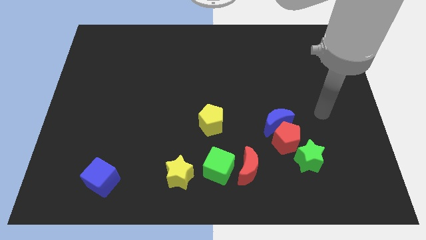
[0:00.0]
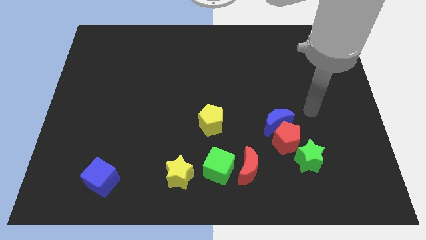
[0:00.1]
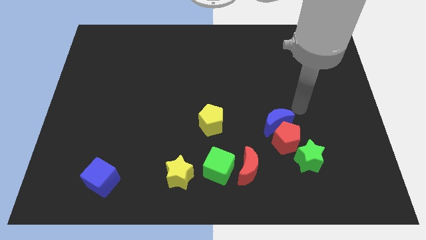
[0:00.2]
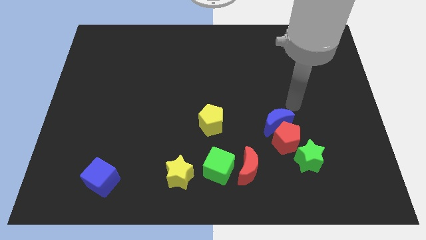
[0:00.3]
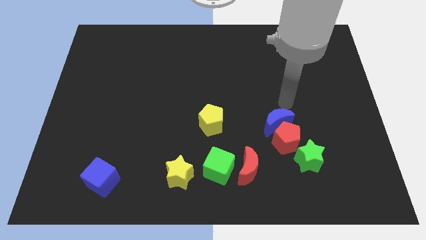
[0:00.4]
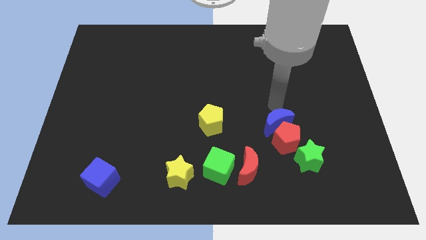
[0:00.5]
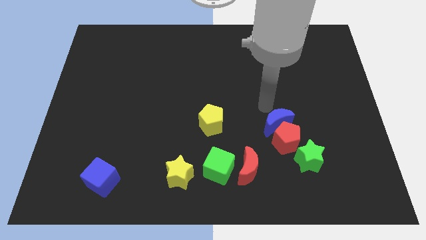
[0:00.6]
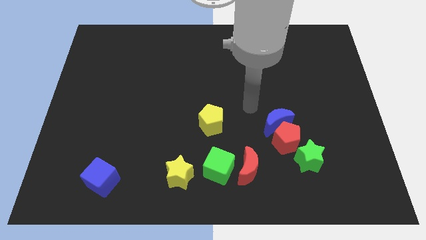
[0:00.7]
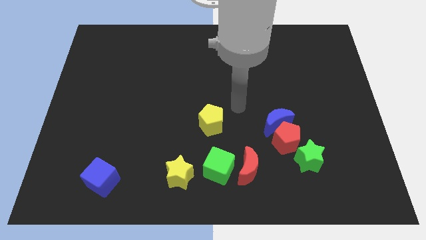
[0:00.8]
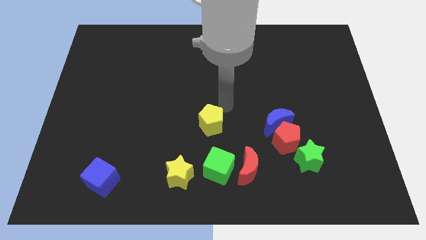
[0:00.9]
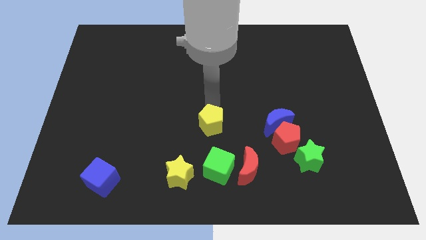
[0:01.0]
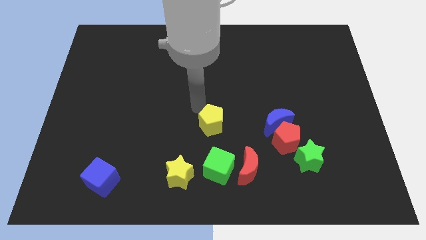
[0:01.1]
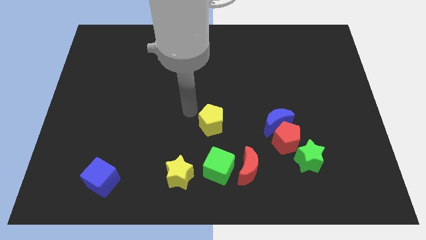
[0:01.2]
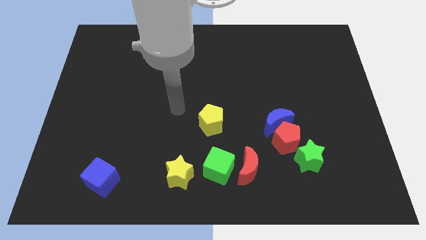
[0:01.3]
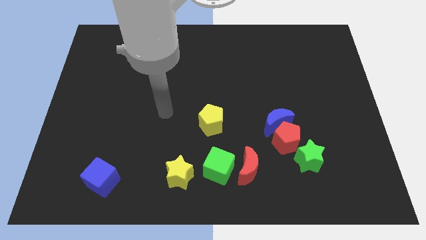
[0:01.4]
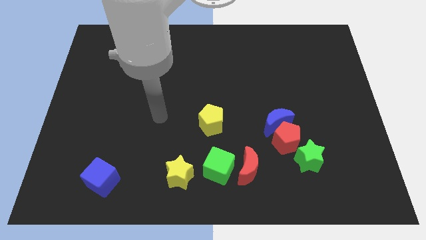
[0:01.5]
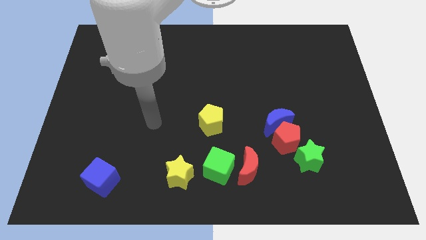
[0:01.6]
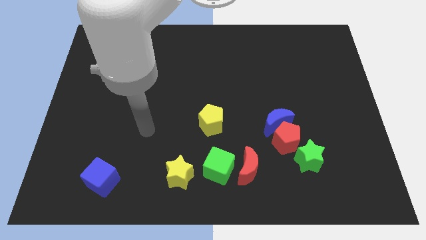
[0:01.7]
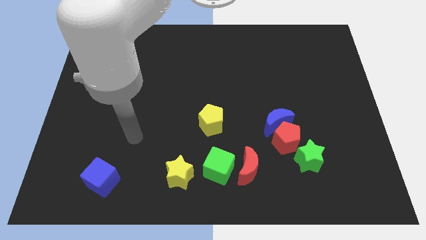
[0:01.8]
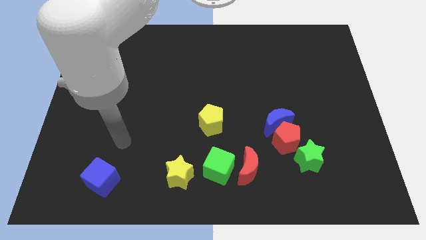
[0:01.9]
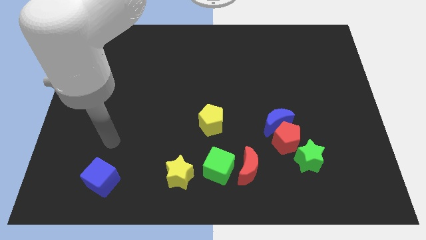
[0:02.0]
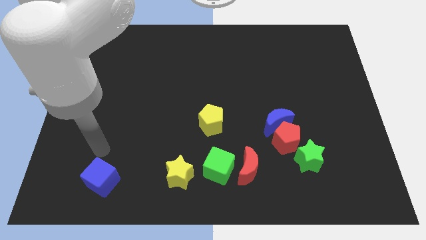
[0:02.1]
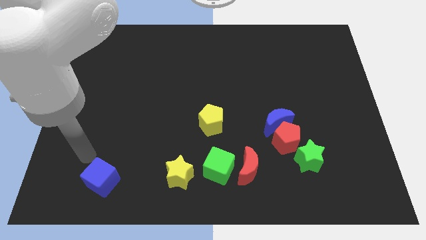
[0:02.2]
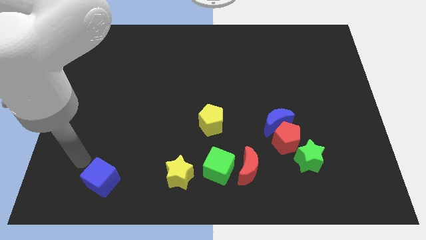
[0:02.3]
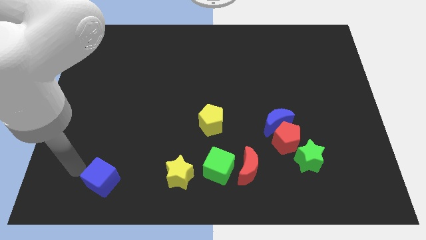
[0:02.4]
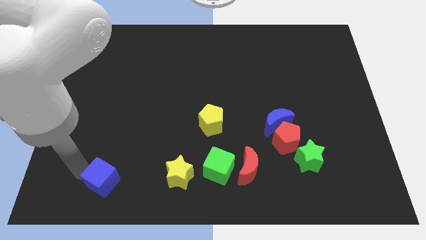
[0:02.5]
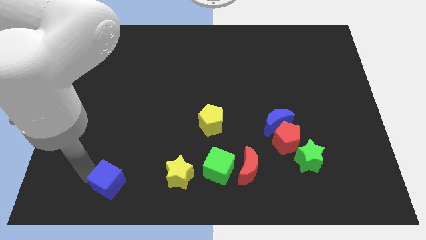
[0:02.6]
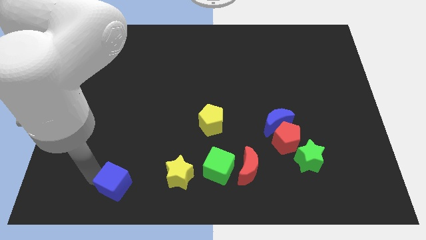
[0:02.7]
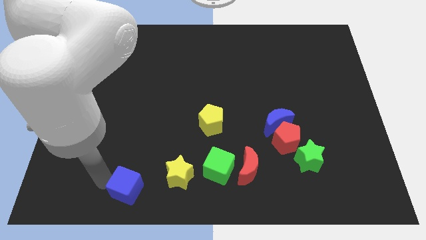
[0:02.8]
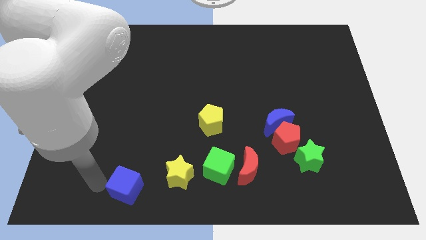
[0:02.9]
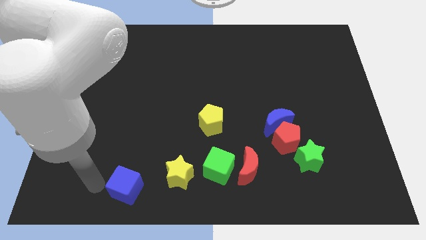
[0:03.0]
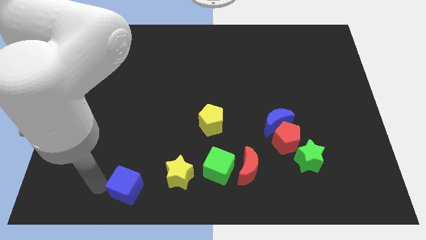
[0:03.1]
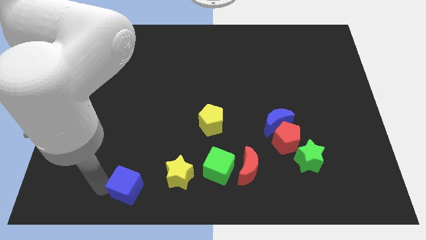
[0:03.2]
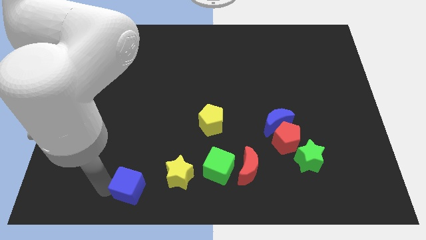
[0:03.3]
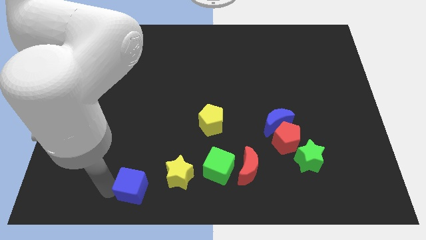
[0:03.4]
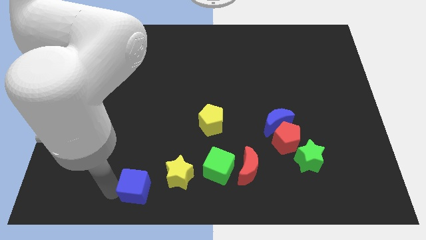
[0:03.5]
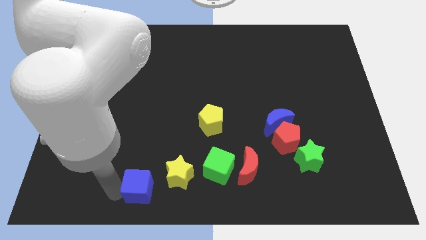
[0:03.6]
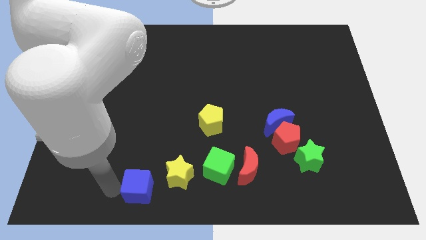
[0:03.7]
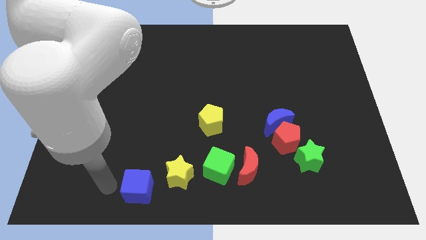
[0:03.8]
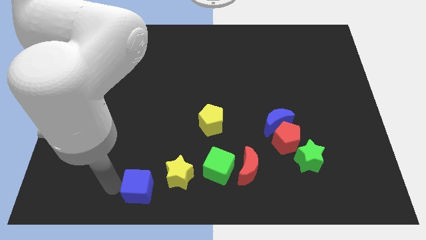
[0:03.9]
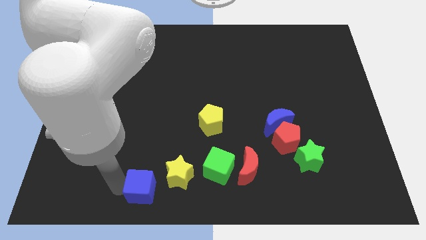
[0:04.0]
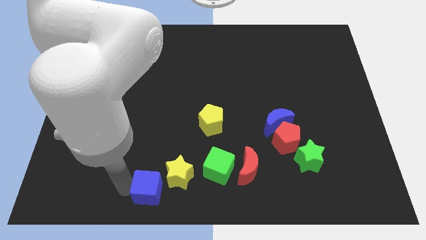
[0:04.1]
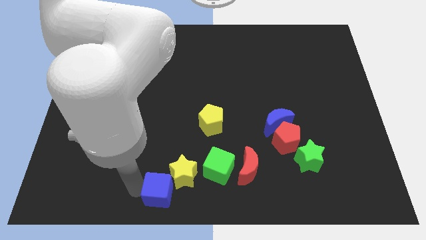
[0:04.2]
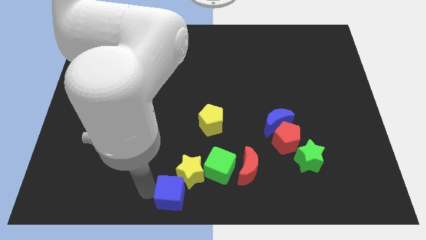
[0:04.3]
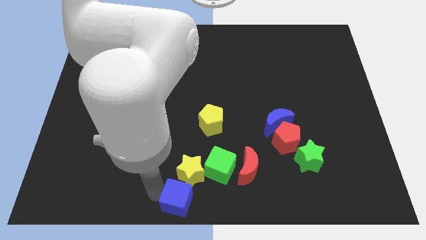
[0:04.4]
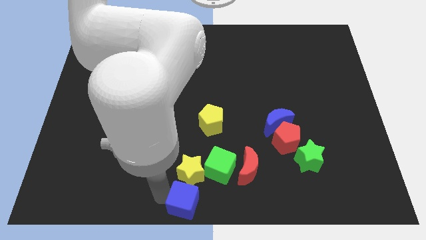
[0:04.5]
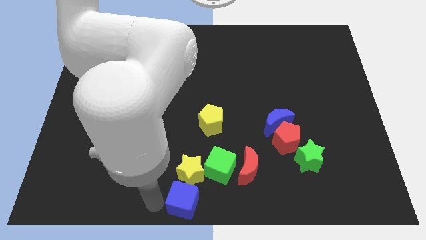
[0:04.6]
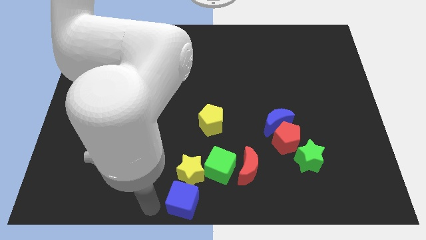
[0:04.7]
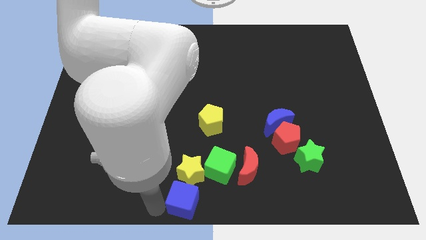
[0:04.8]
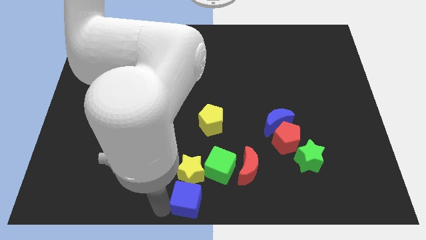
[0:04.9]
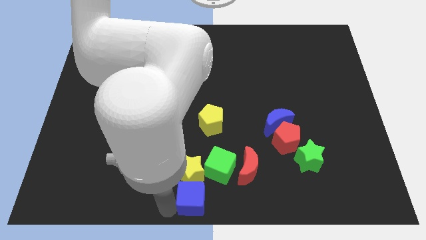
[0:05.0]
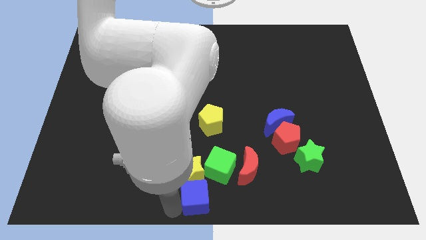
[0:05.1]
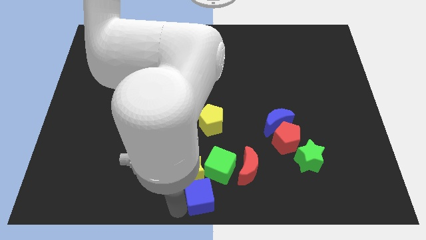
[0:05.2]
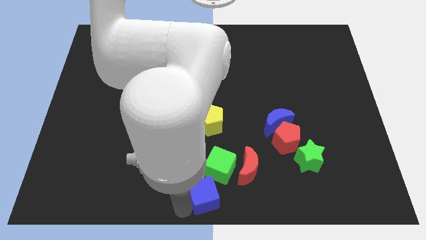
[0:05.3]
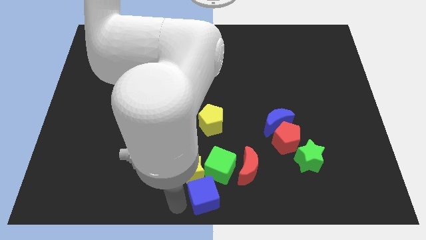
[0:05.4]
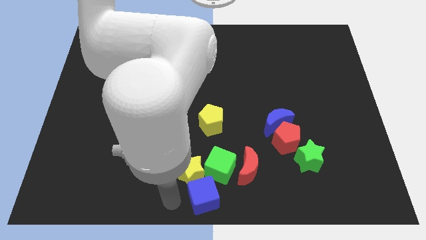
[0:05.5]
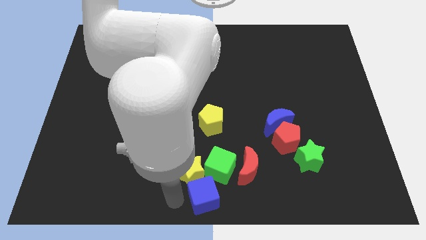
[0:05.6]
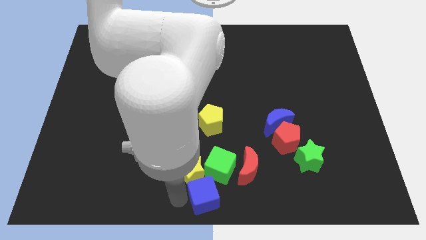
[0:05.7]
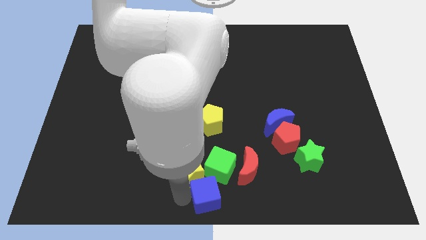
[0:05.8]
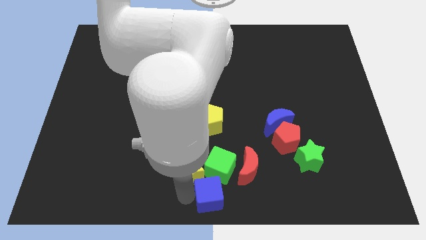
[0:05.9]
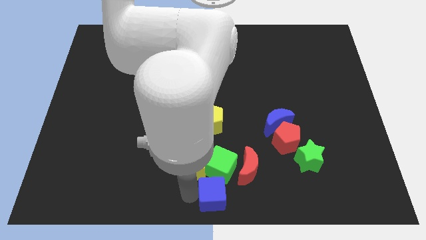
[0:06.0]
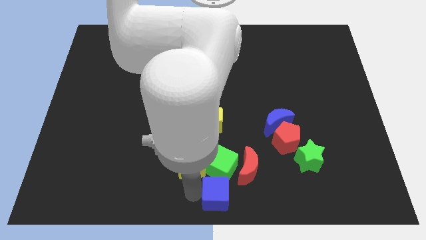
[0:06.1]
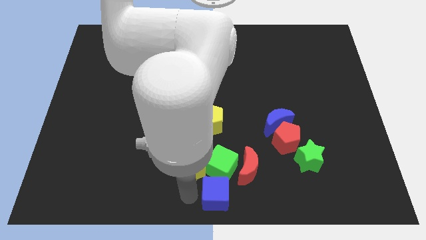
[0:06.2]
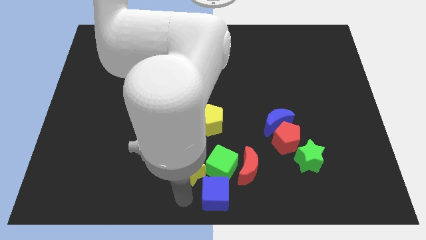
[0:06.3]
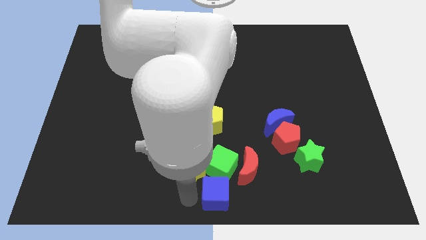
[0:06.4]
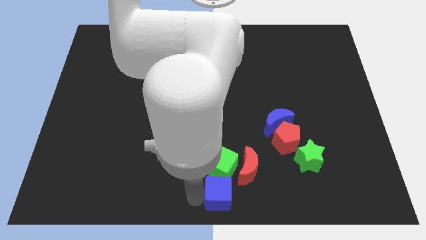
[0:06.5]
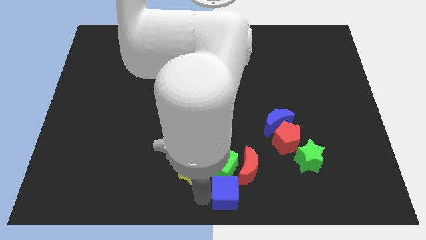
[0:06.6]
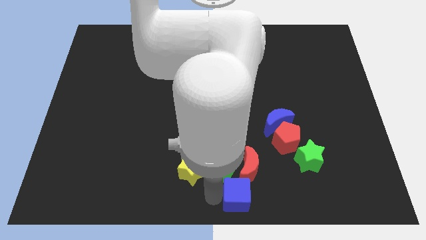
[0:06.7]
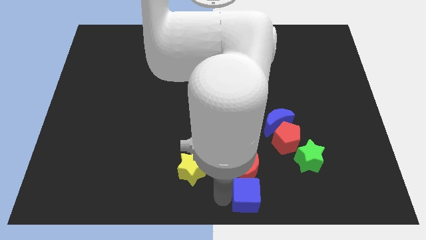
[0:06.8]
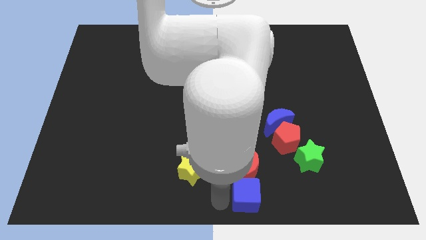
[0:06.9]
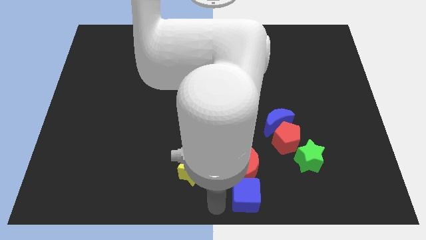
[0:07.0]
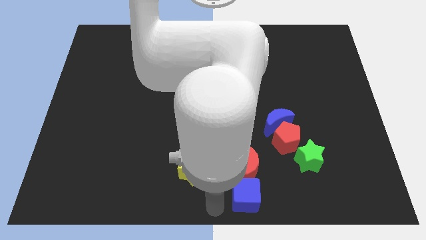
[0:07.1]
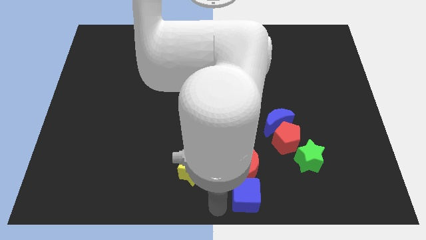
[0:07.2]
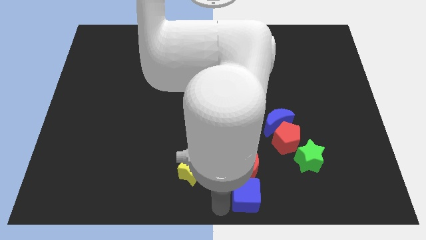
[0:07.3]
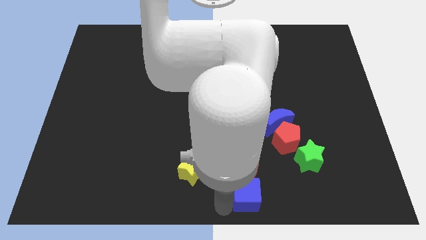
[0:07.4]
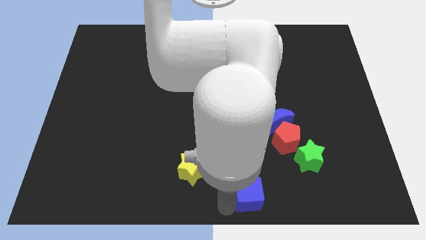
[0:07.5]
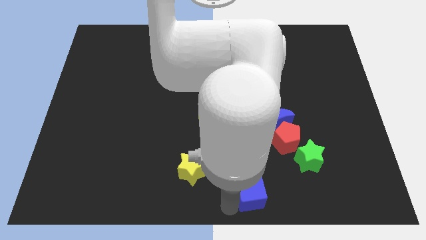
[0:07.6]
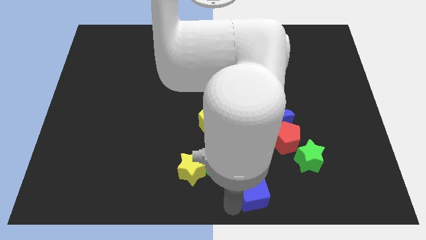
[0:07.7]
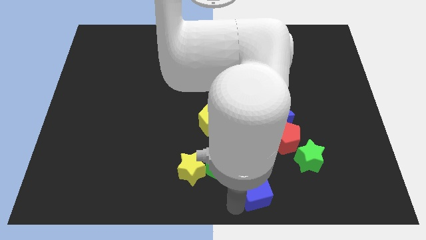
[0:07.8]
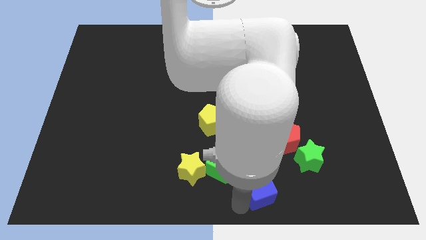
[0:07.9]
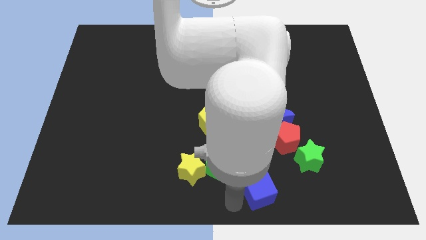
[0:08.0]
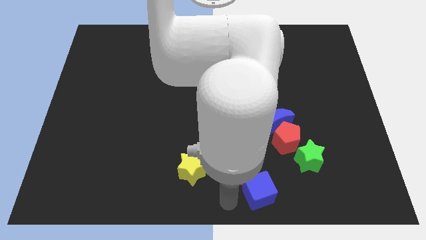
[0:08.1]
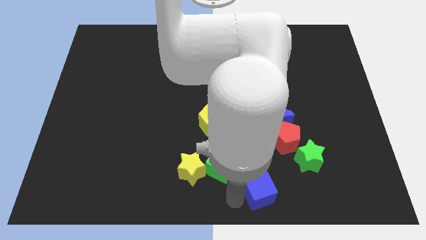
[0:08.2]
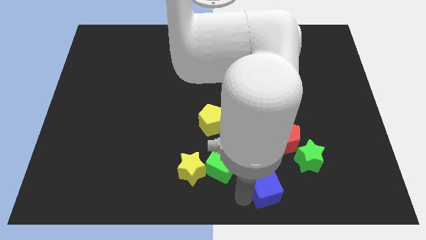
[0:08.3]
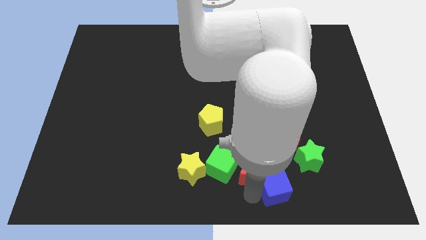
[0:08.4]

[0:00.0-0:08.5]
slide the blue cube to the bottom of the red pentagon
